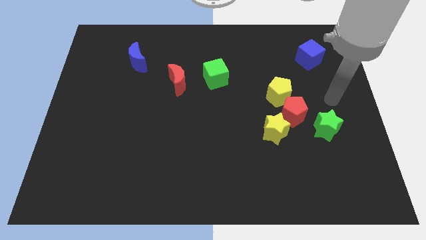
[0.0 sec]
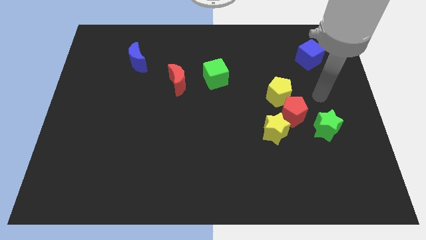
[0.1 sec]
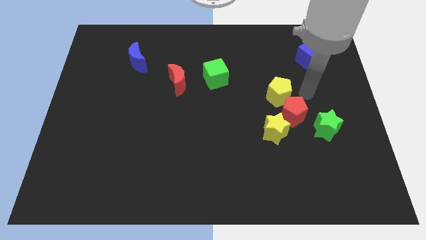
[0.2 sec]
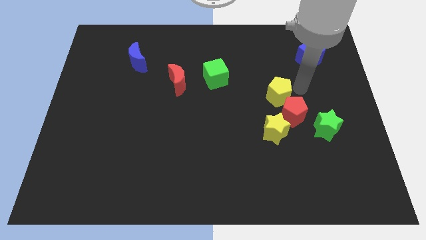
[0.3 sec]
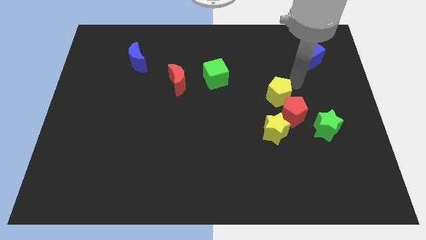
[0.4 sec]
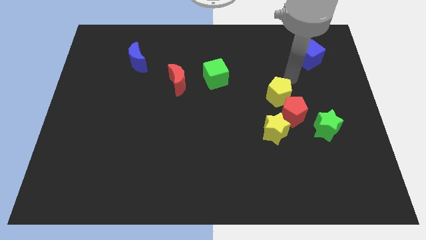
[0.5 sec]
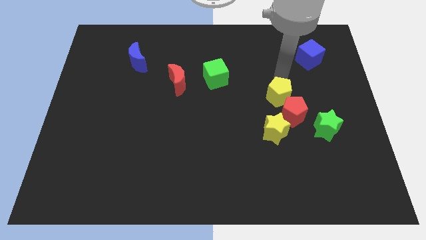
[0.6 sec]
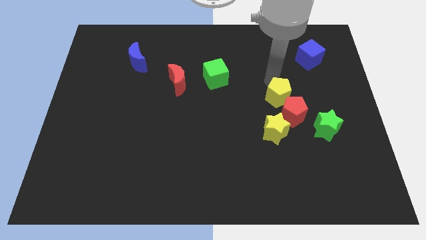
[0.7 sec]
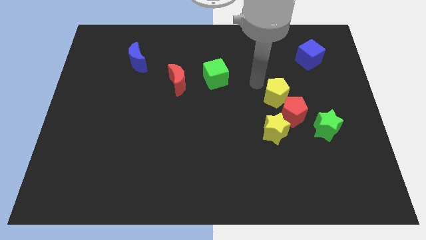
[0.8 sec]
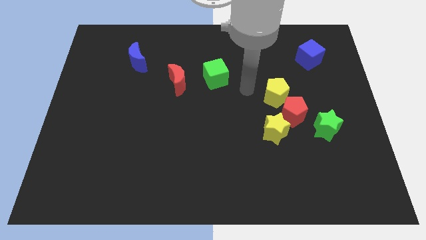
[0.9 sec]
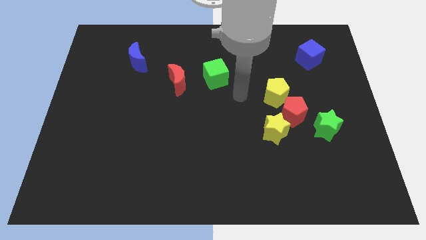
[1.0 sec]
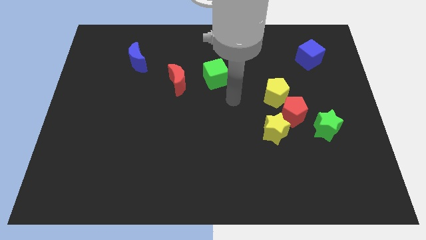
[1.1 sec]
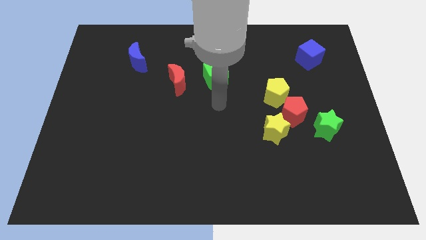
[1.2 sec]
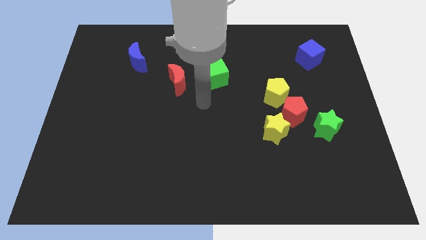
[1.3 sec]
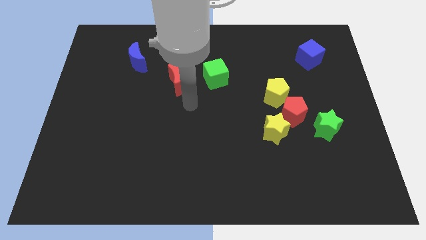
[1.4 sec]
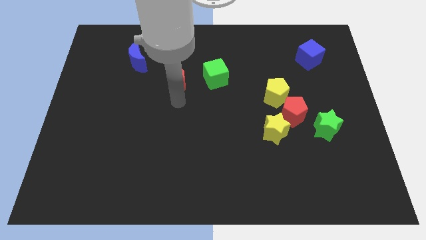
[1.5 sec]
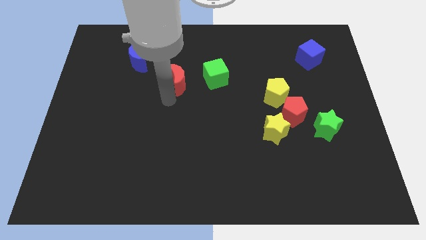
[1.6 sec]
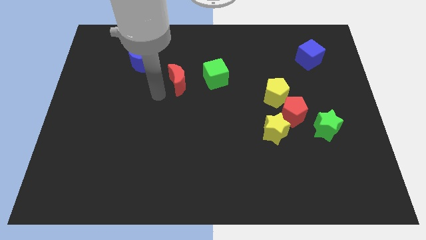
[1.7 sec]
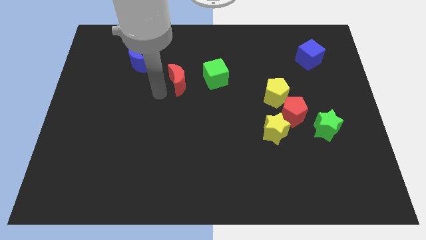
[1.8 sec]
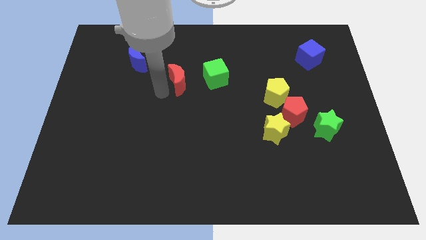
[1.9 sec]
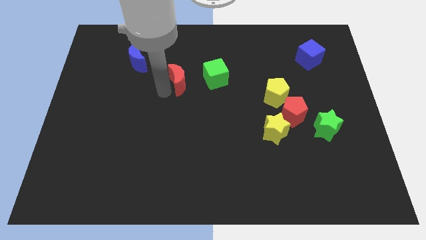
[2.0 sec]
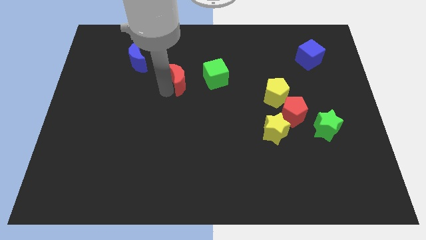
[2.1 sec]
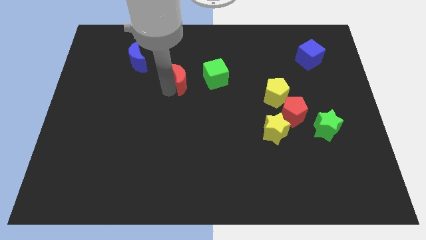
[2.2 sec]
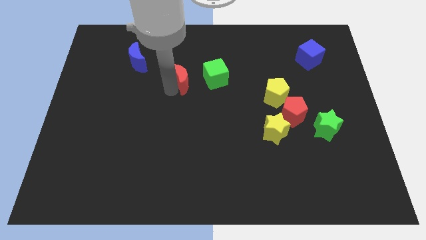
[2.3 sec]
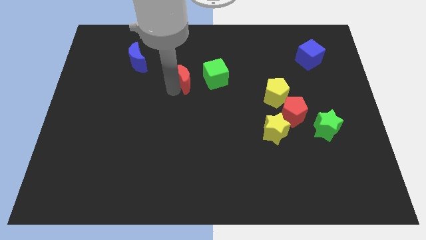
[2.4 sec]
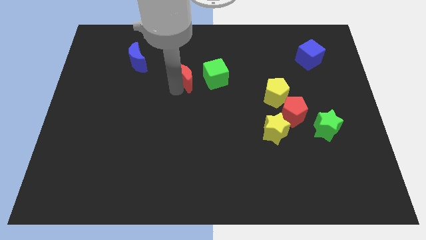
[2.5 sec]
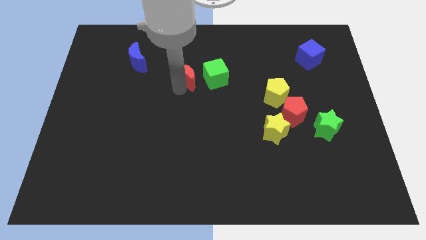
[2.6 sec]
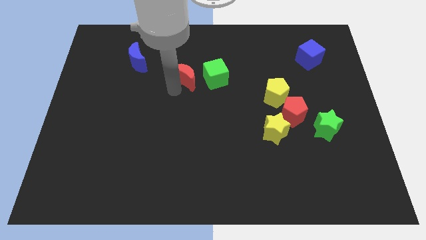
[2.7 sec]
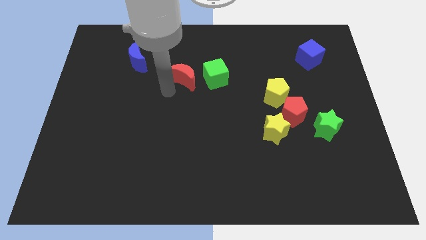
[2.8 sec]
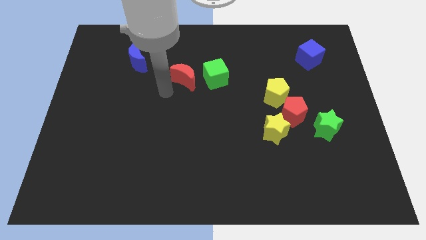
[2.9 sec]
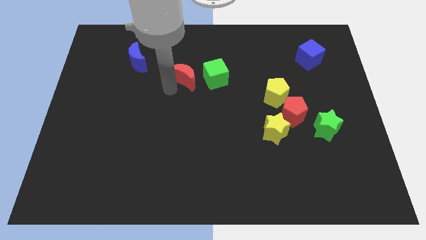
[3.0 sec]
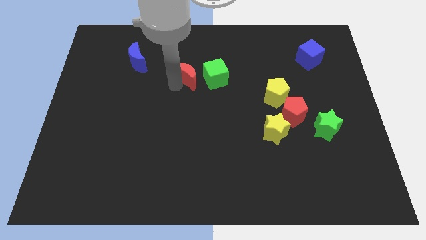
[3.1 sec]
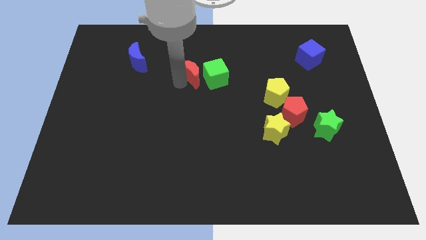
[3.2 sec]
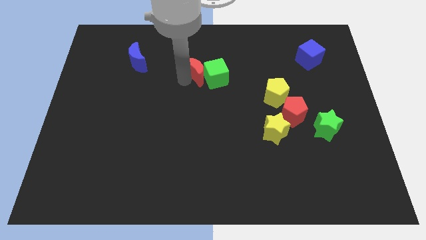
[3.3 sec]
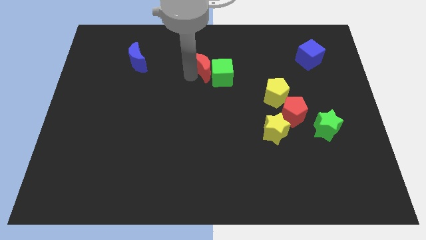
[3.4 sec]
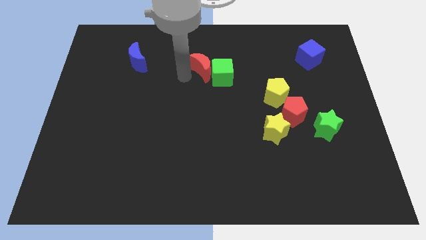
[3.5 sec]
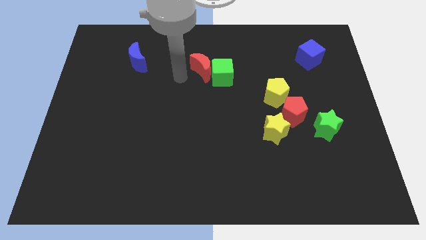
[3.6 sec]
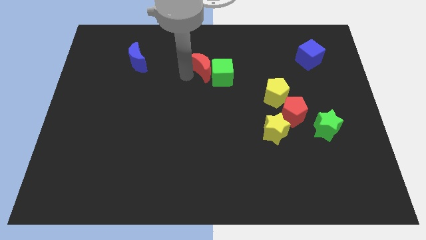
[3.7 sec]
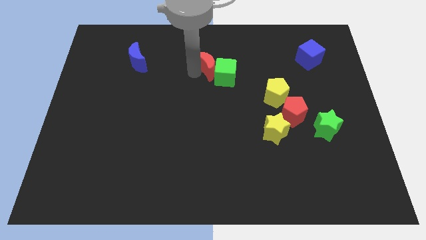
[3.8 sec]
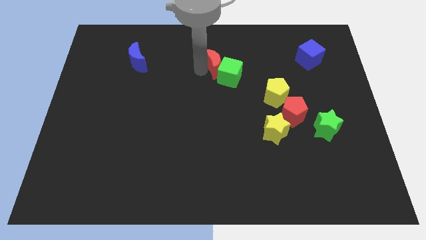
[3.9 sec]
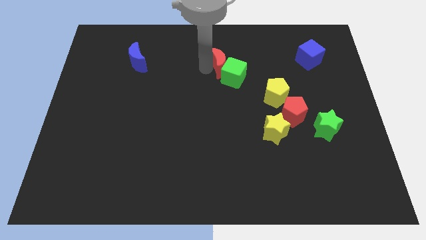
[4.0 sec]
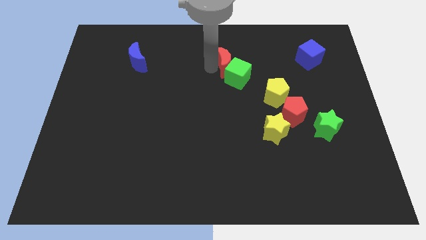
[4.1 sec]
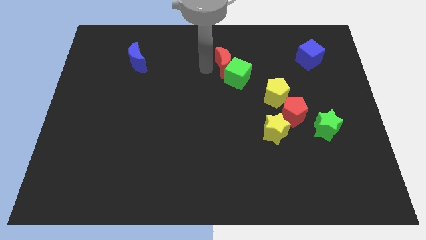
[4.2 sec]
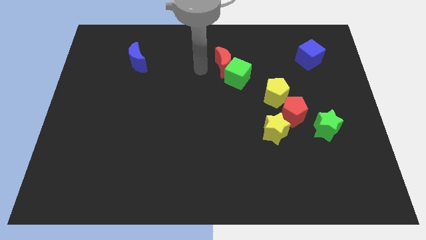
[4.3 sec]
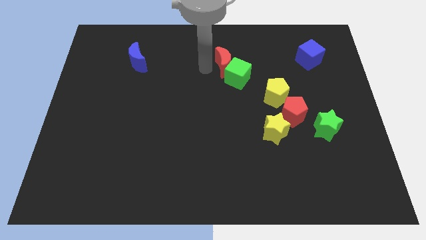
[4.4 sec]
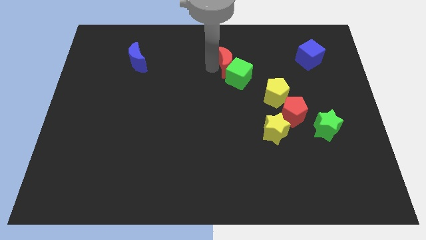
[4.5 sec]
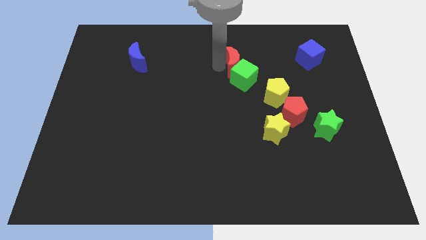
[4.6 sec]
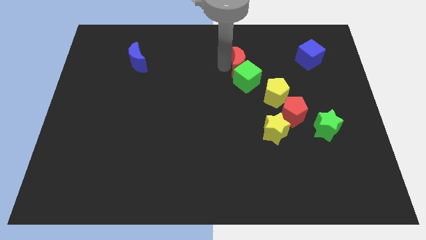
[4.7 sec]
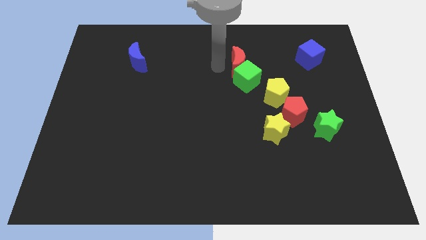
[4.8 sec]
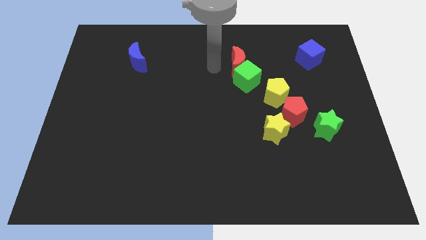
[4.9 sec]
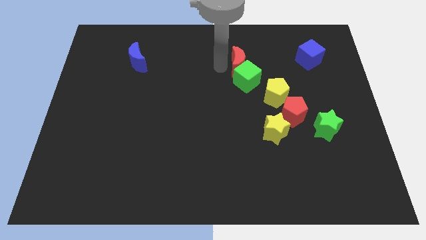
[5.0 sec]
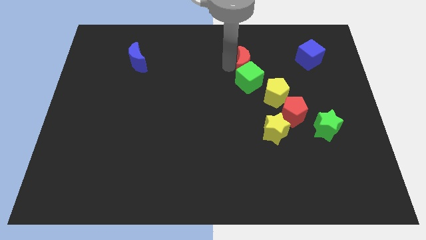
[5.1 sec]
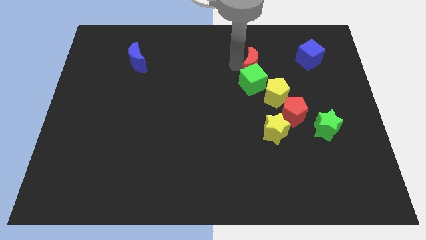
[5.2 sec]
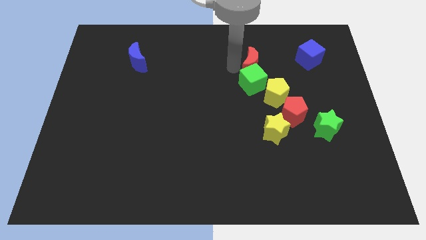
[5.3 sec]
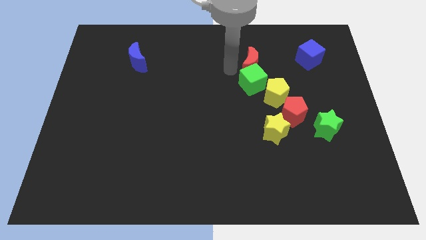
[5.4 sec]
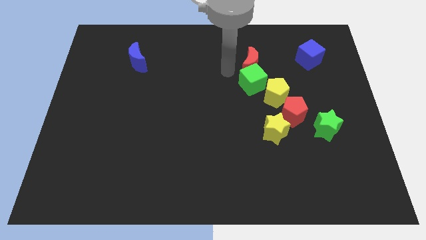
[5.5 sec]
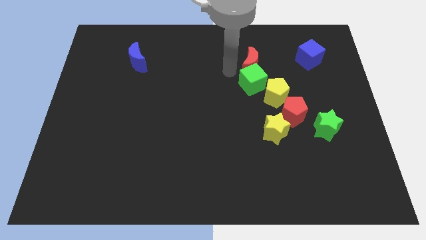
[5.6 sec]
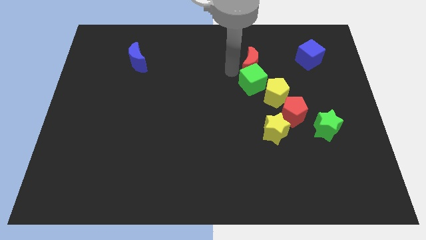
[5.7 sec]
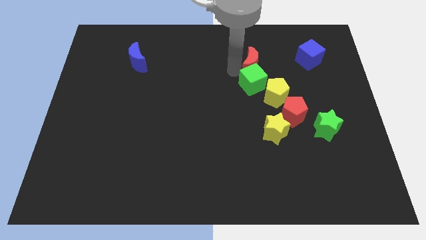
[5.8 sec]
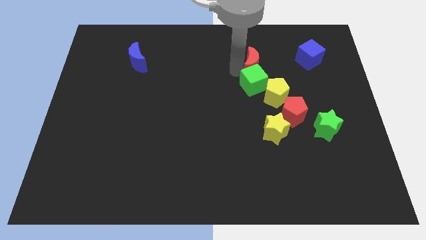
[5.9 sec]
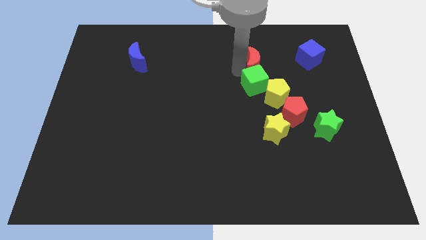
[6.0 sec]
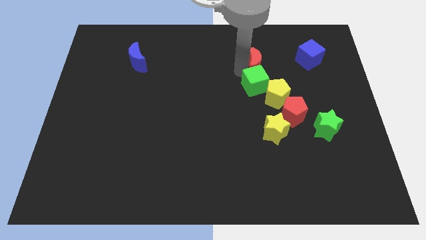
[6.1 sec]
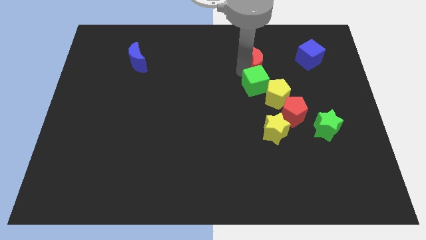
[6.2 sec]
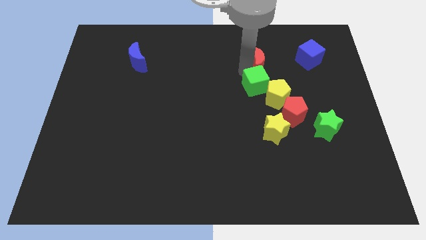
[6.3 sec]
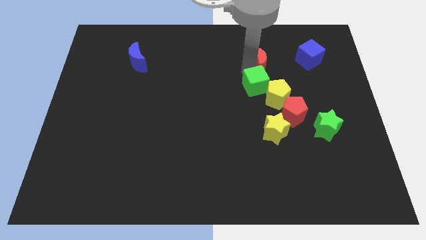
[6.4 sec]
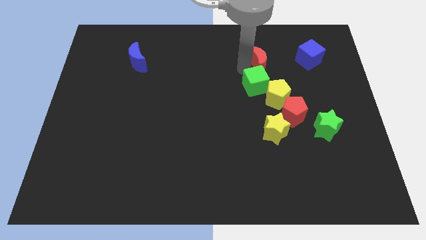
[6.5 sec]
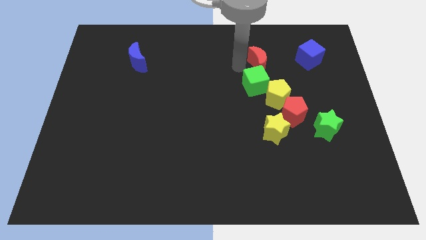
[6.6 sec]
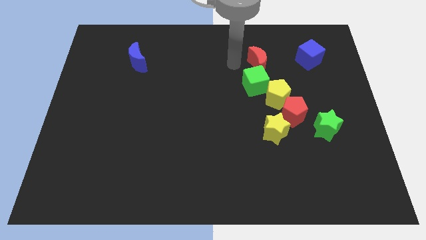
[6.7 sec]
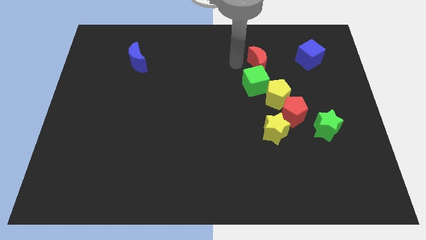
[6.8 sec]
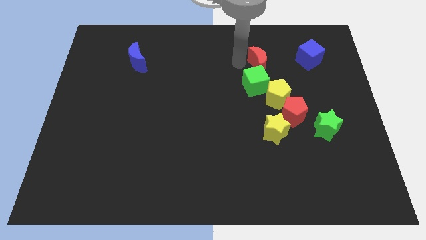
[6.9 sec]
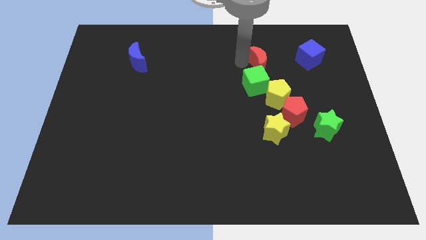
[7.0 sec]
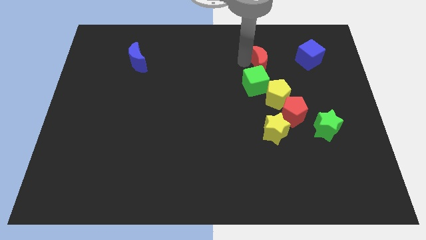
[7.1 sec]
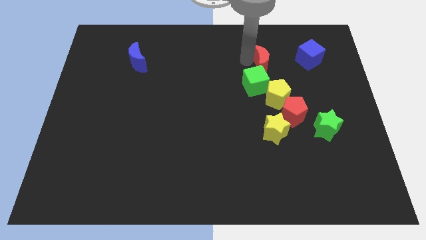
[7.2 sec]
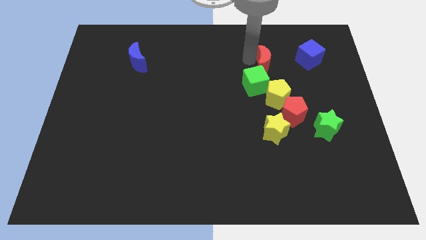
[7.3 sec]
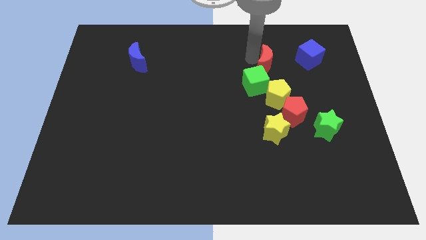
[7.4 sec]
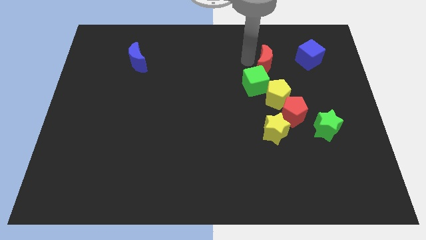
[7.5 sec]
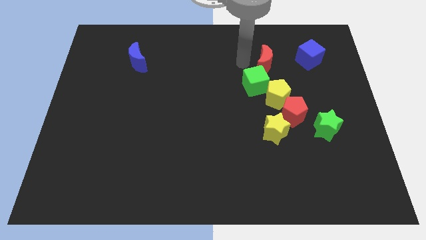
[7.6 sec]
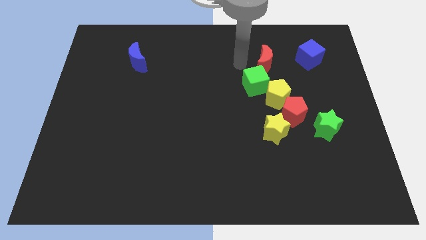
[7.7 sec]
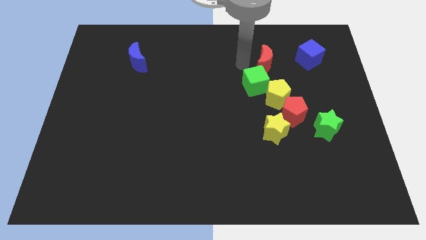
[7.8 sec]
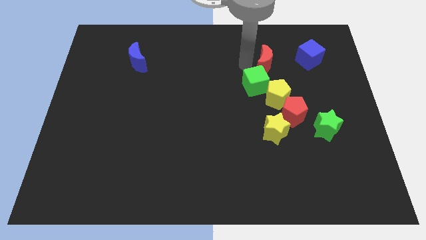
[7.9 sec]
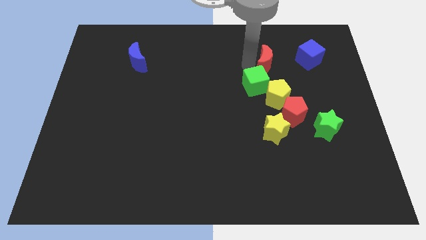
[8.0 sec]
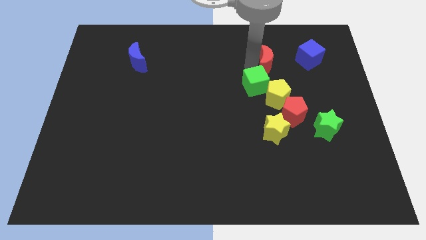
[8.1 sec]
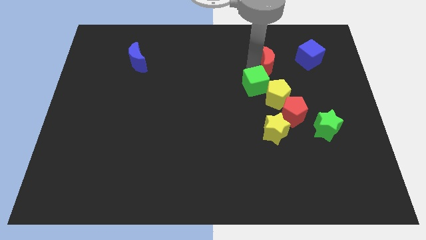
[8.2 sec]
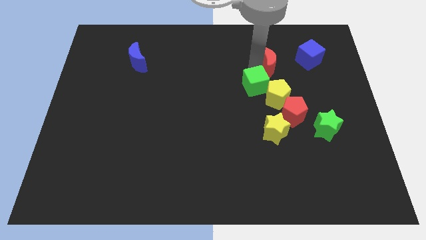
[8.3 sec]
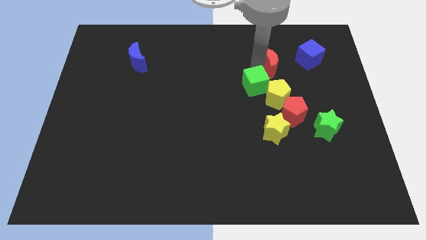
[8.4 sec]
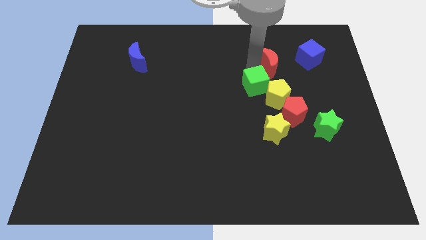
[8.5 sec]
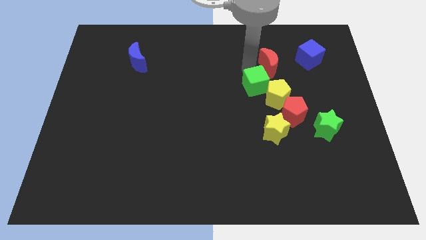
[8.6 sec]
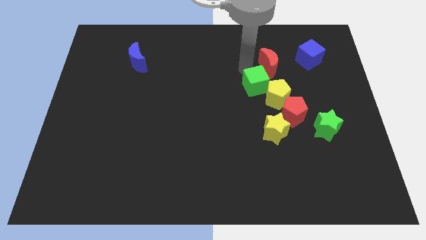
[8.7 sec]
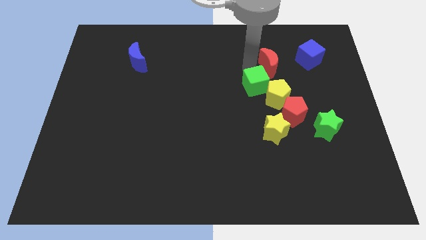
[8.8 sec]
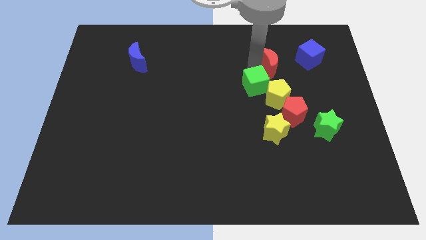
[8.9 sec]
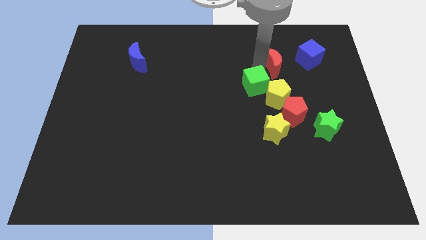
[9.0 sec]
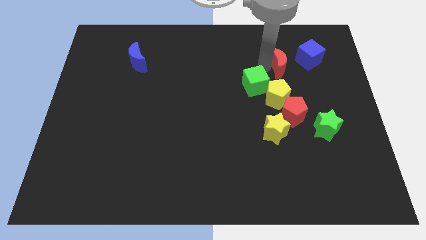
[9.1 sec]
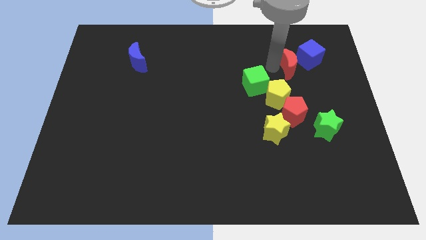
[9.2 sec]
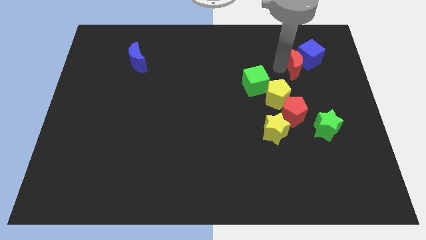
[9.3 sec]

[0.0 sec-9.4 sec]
slide the red moon towards the blue cube
